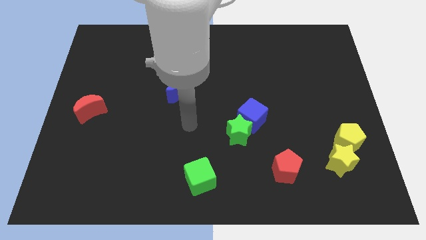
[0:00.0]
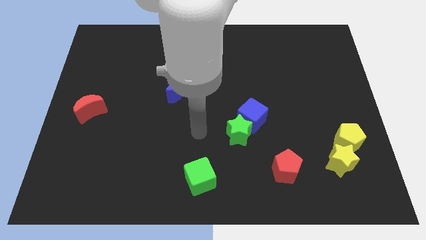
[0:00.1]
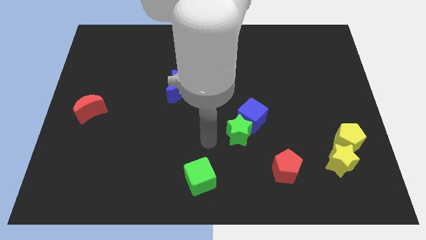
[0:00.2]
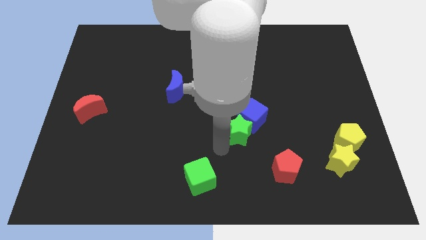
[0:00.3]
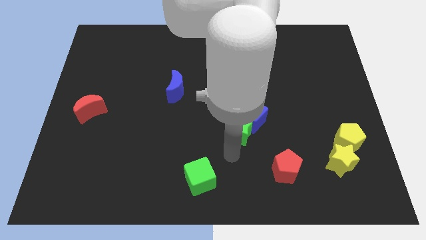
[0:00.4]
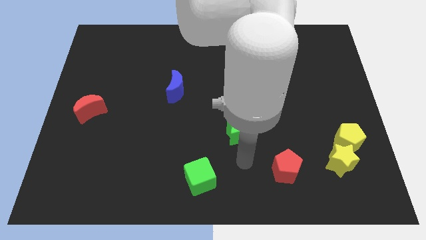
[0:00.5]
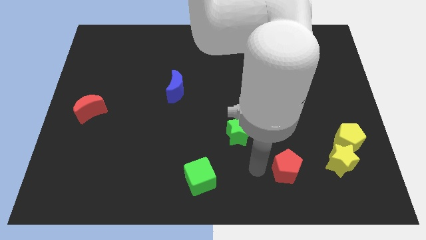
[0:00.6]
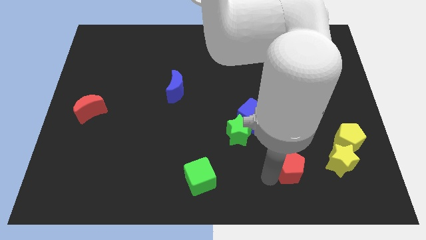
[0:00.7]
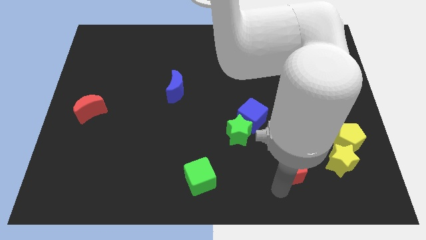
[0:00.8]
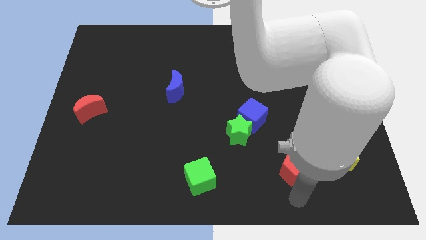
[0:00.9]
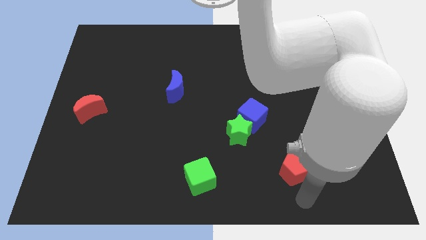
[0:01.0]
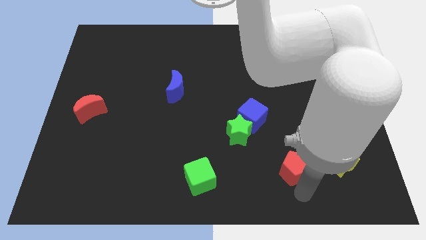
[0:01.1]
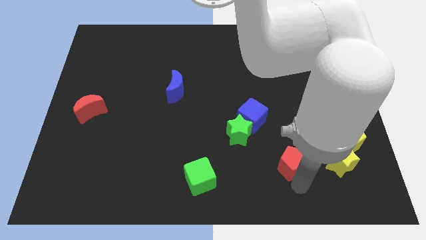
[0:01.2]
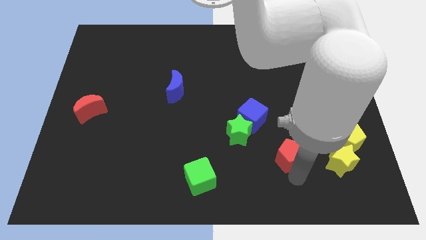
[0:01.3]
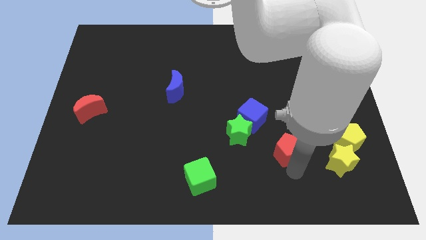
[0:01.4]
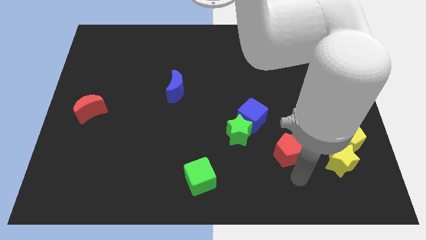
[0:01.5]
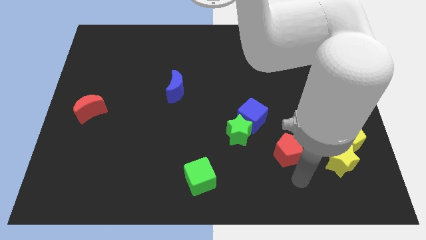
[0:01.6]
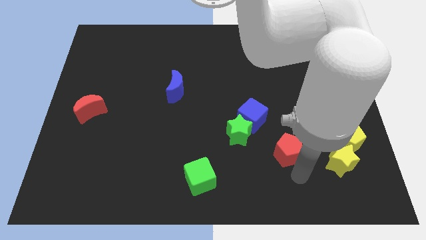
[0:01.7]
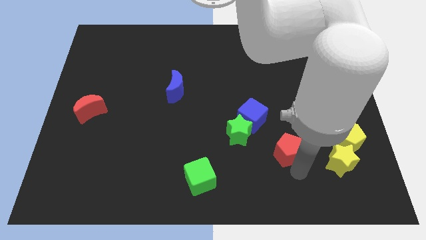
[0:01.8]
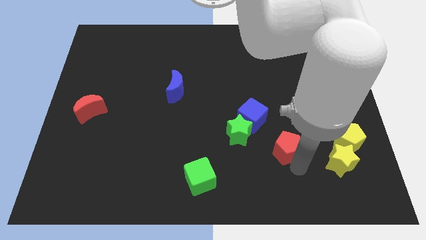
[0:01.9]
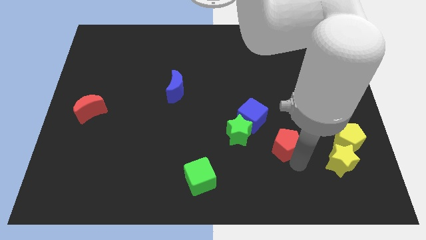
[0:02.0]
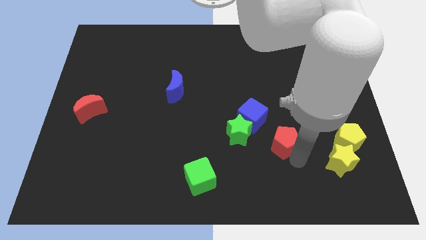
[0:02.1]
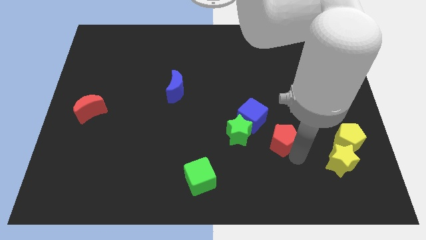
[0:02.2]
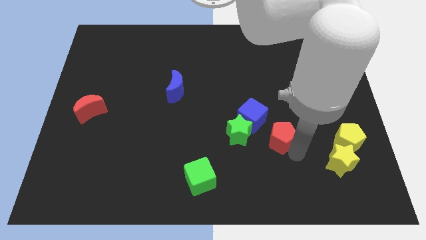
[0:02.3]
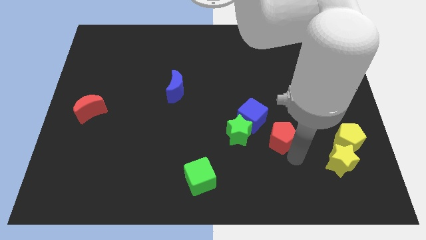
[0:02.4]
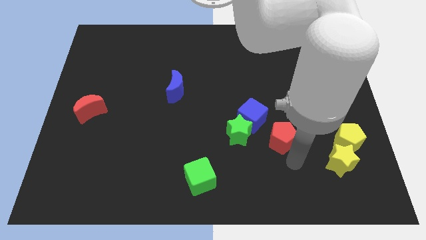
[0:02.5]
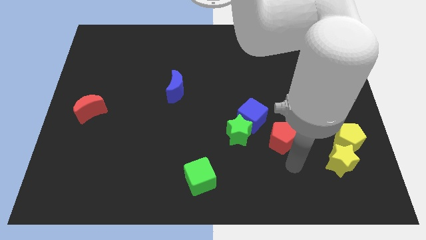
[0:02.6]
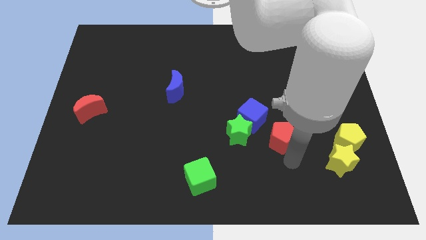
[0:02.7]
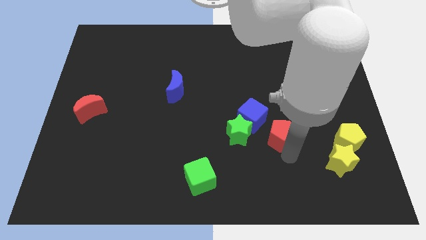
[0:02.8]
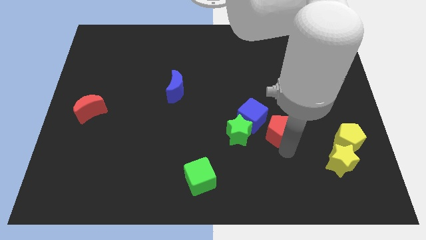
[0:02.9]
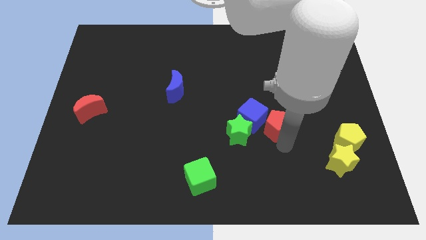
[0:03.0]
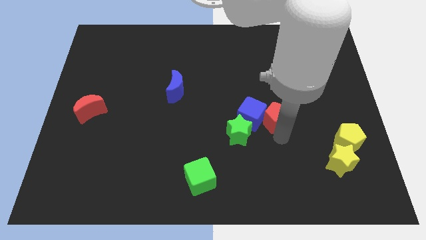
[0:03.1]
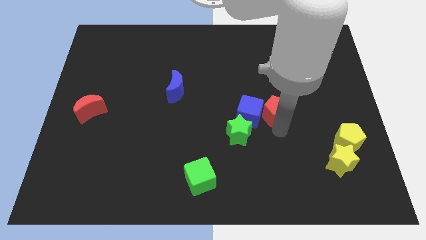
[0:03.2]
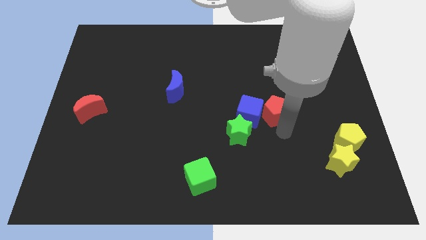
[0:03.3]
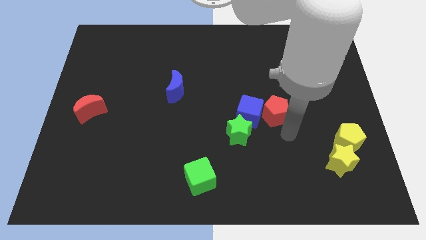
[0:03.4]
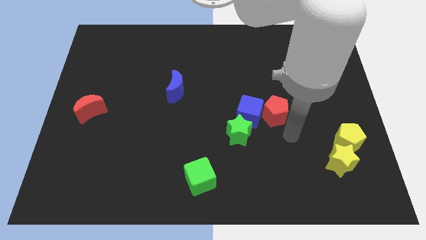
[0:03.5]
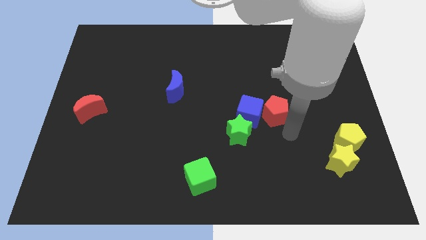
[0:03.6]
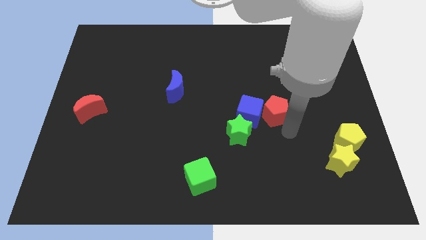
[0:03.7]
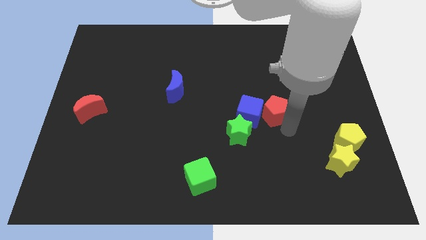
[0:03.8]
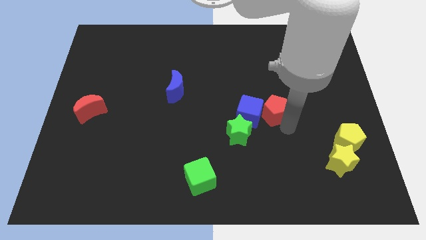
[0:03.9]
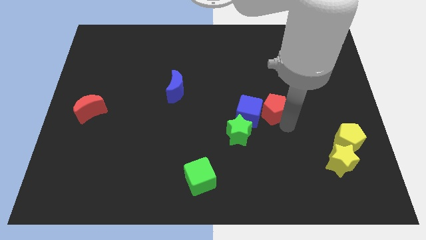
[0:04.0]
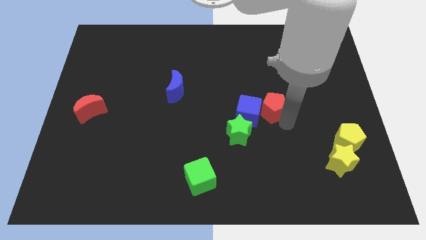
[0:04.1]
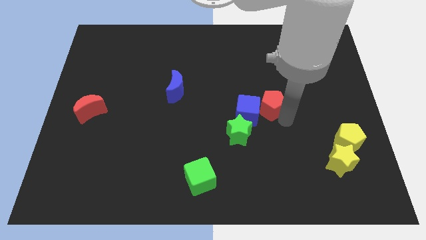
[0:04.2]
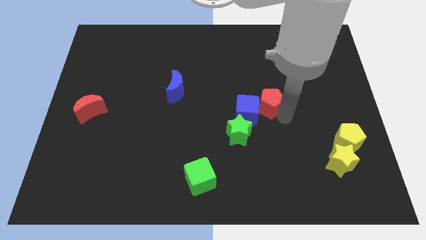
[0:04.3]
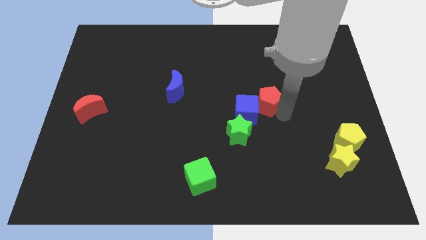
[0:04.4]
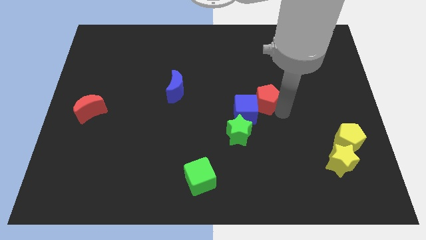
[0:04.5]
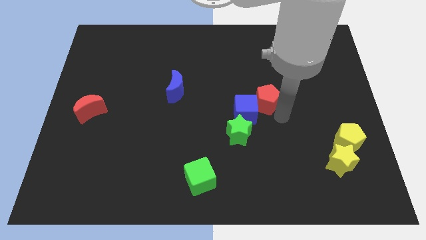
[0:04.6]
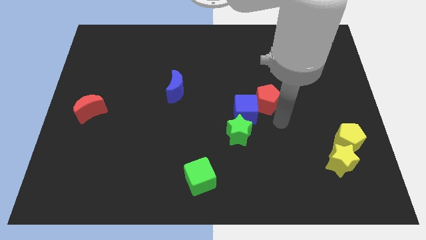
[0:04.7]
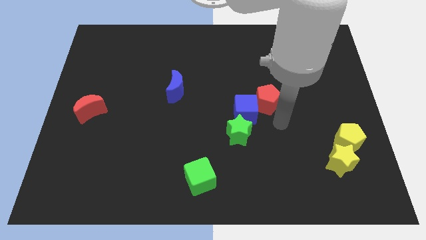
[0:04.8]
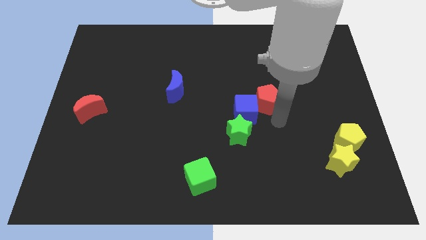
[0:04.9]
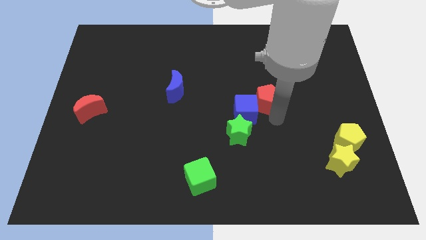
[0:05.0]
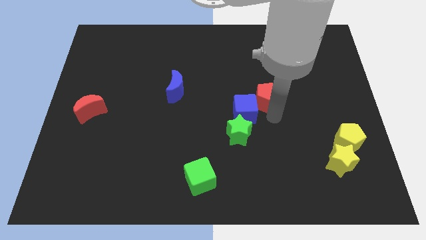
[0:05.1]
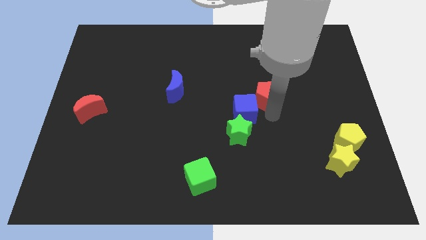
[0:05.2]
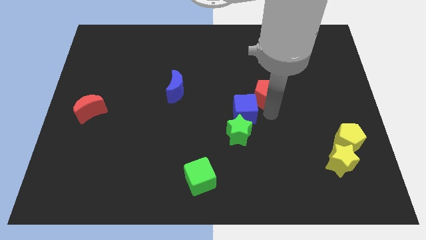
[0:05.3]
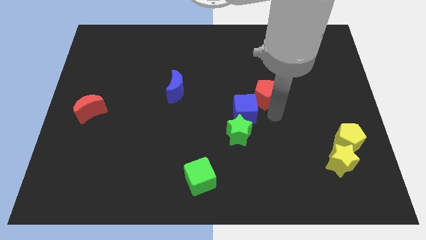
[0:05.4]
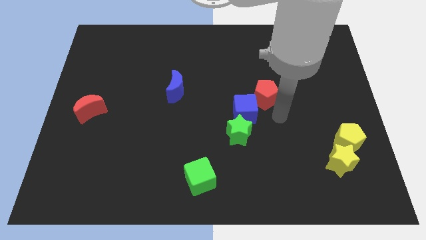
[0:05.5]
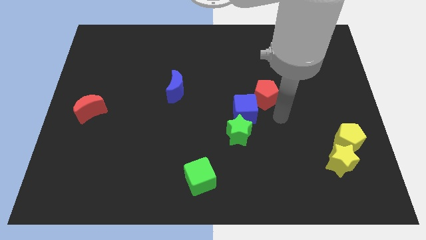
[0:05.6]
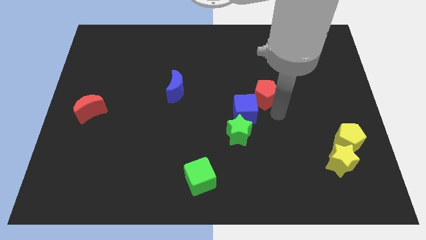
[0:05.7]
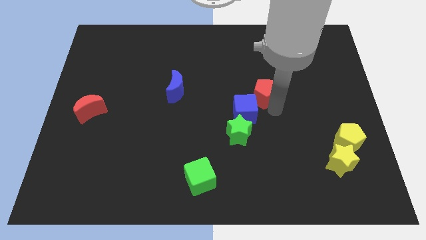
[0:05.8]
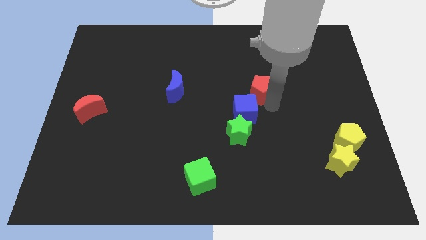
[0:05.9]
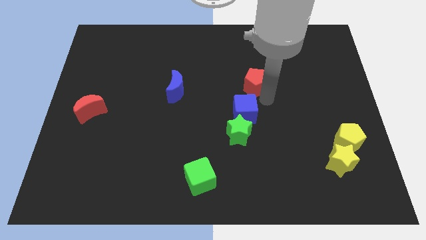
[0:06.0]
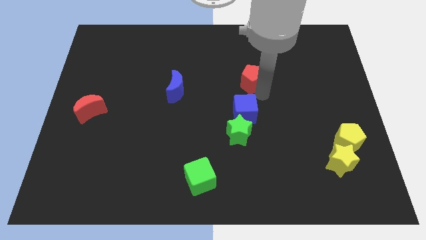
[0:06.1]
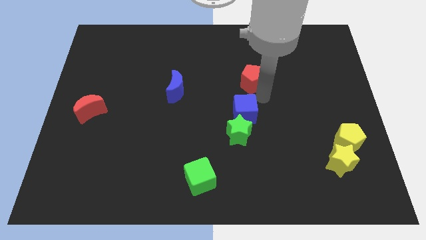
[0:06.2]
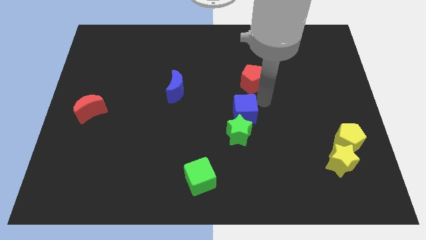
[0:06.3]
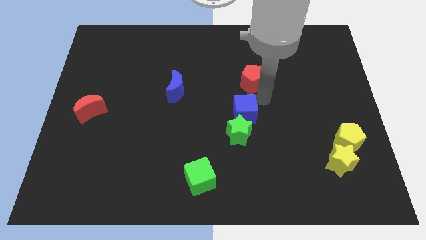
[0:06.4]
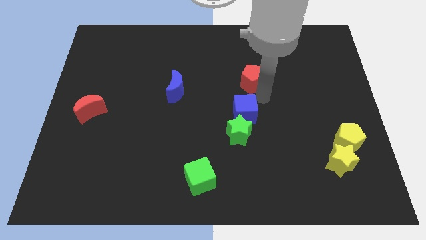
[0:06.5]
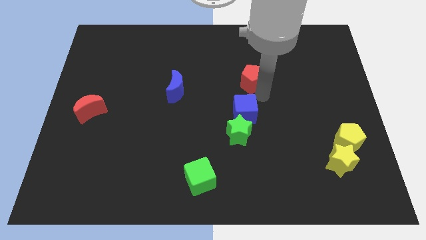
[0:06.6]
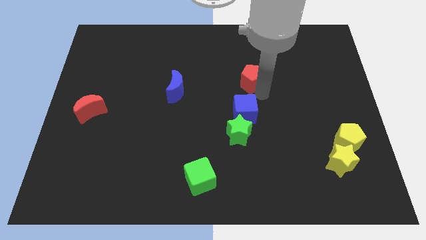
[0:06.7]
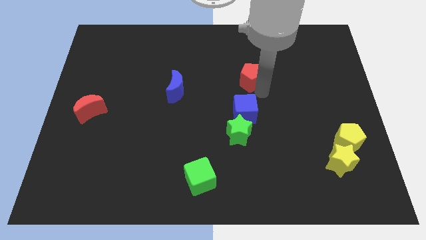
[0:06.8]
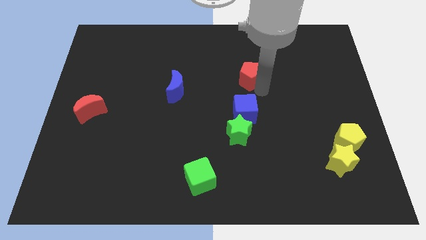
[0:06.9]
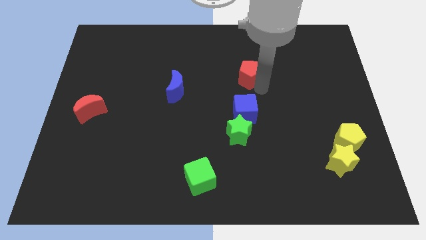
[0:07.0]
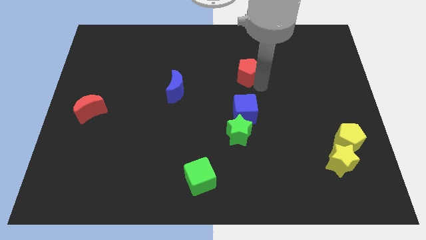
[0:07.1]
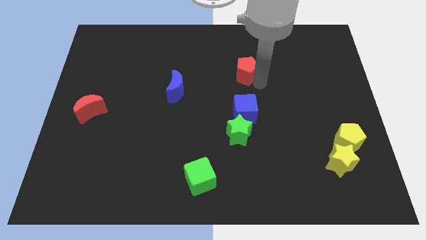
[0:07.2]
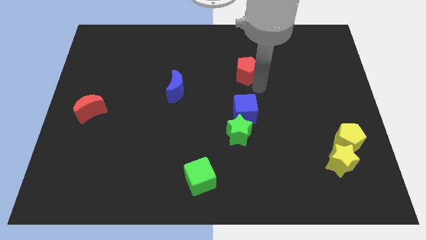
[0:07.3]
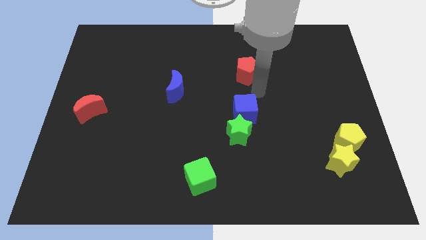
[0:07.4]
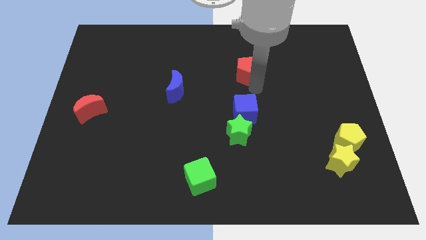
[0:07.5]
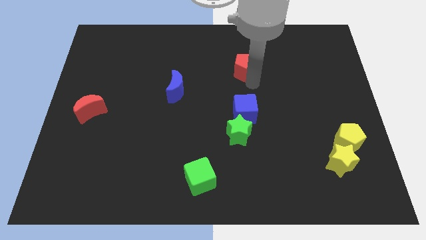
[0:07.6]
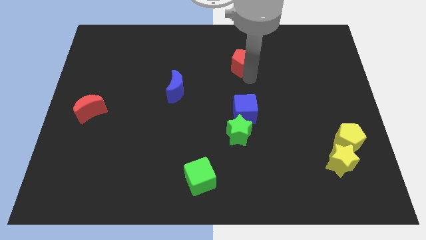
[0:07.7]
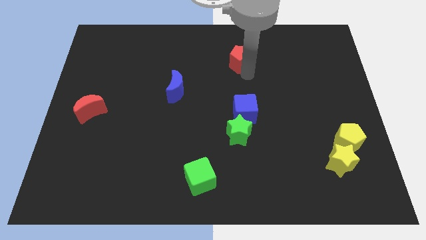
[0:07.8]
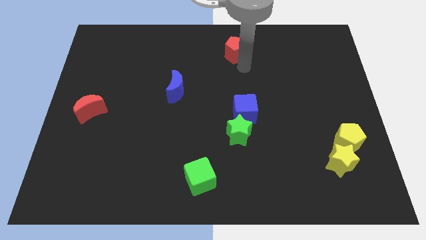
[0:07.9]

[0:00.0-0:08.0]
slide the red pentagon to the towards your base
